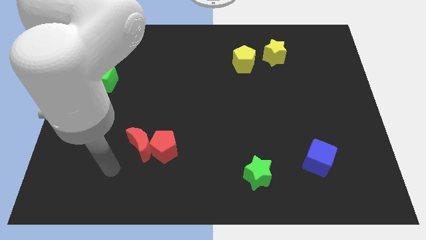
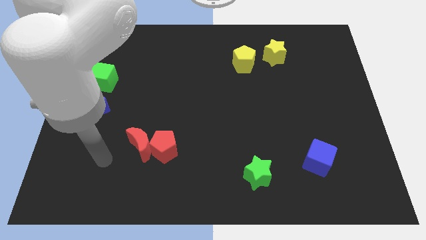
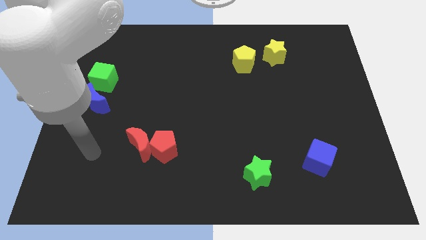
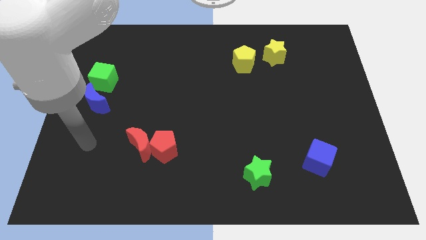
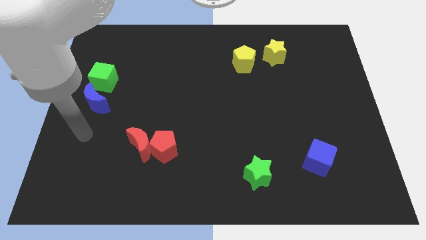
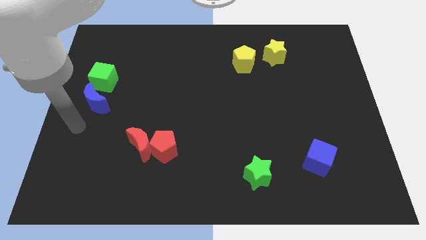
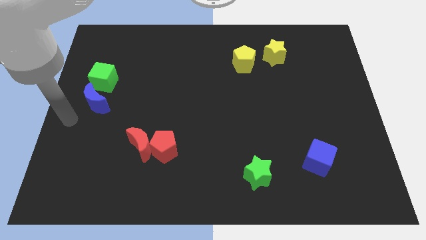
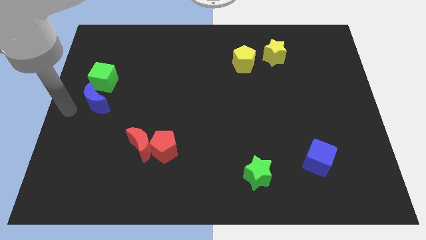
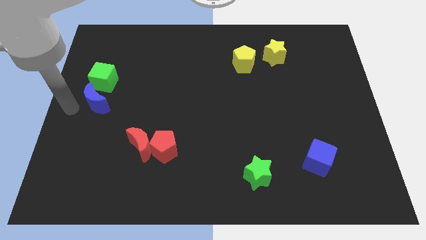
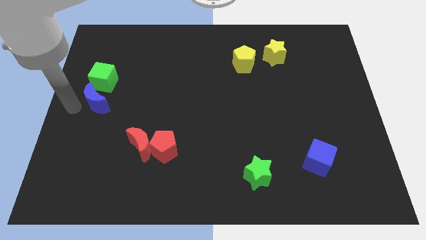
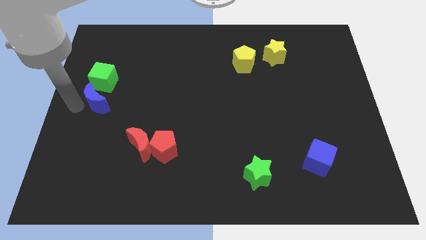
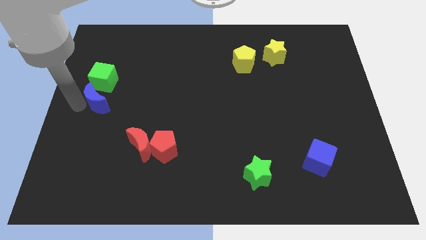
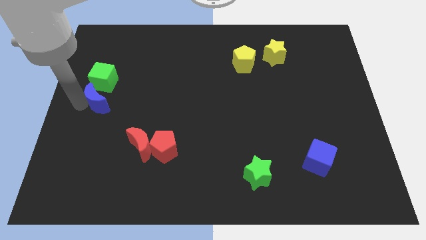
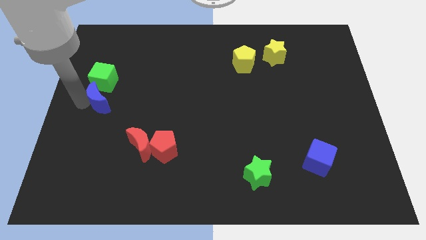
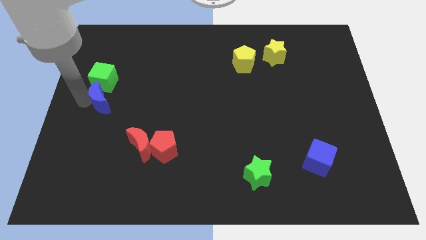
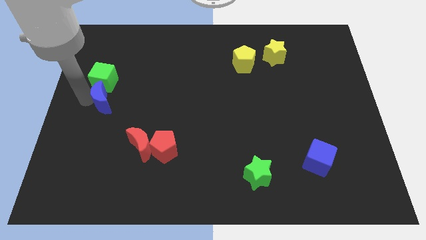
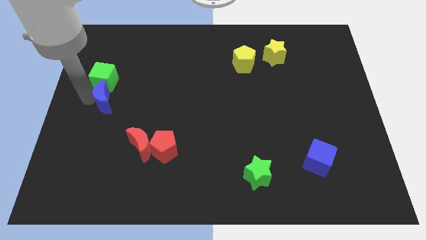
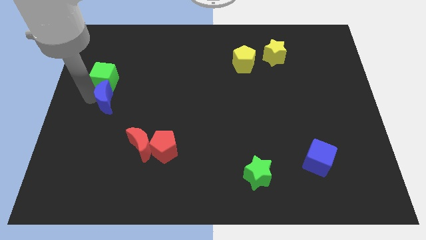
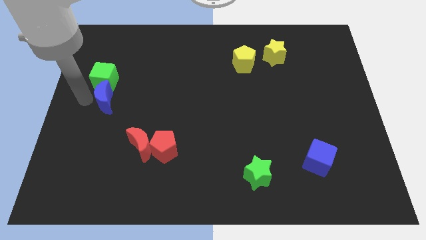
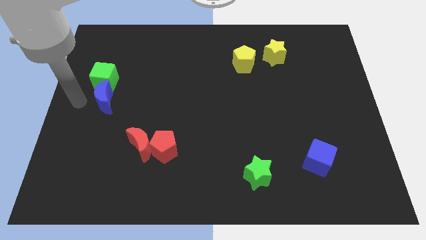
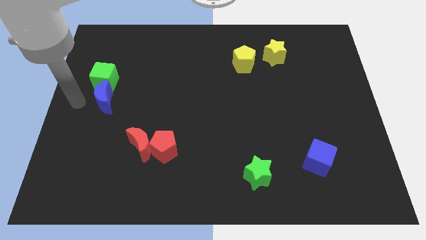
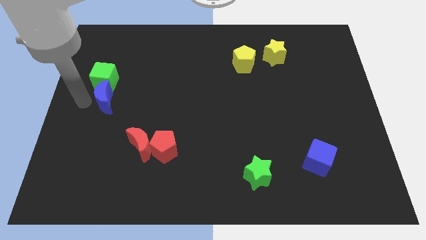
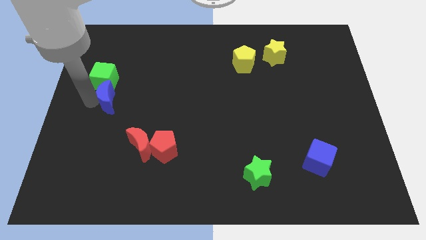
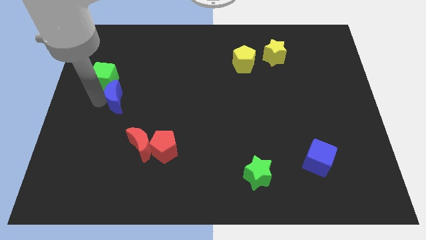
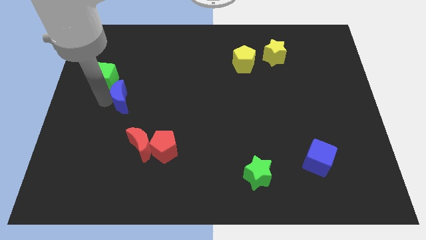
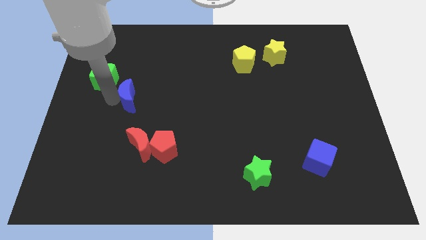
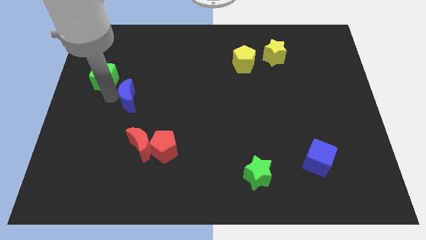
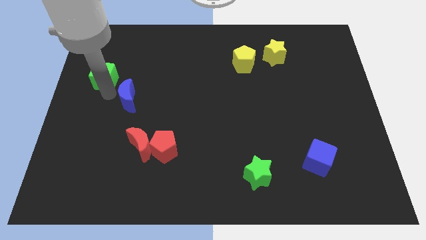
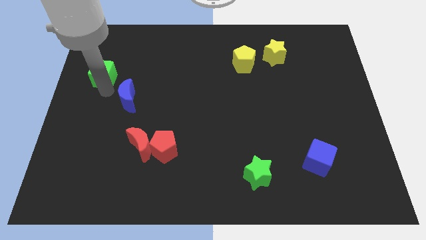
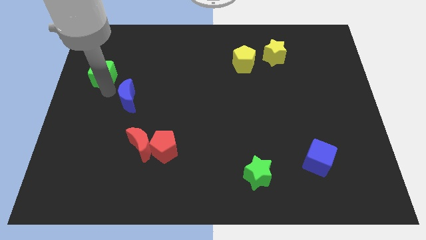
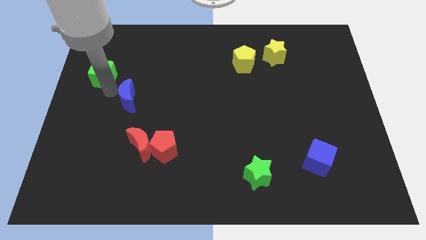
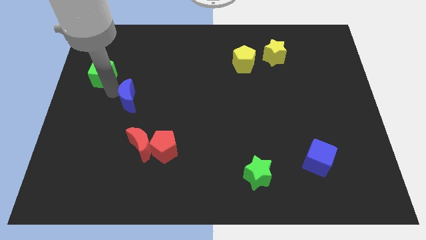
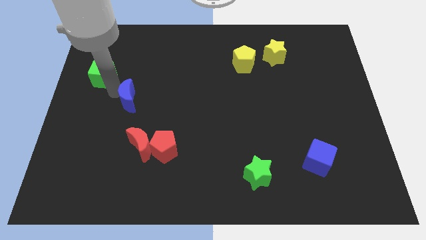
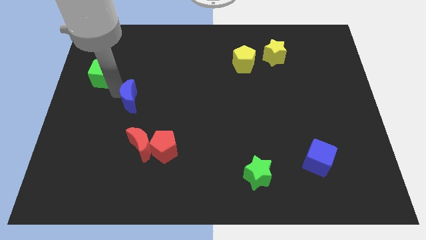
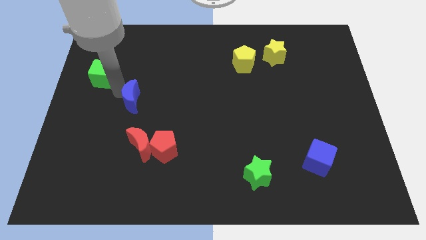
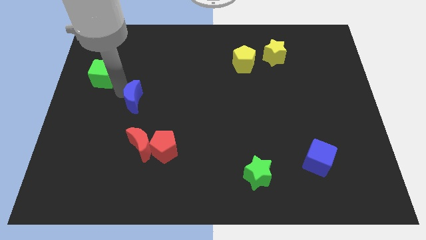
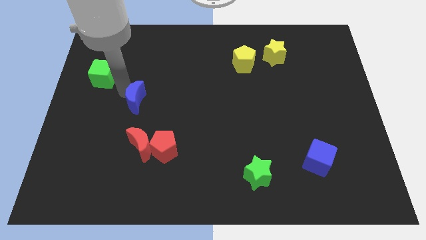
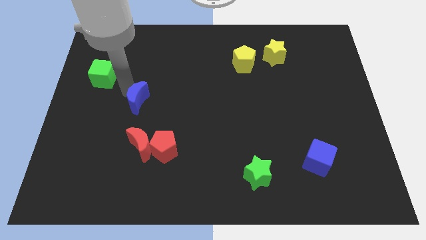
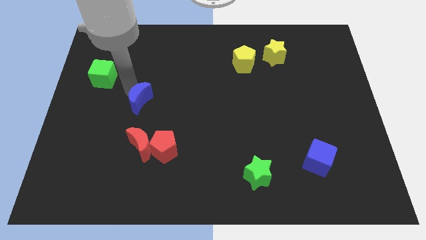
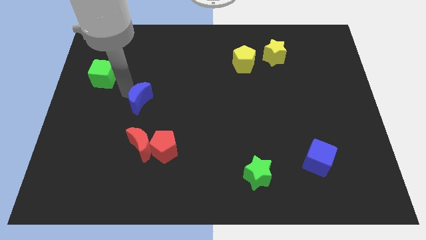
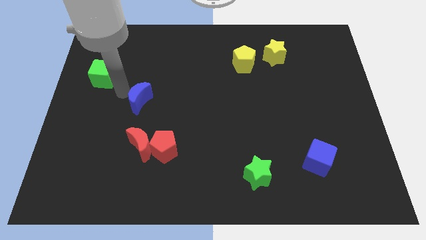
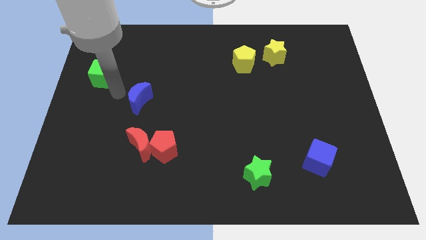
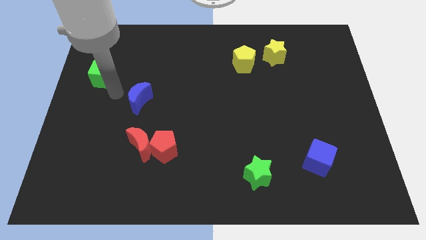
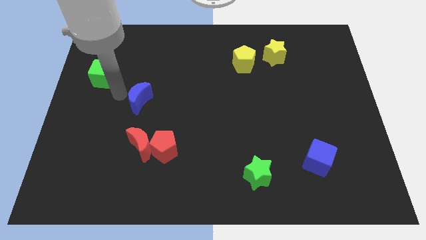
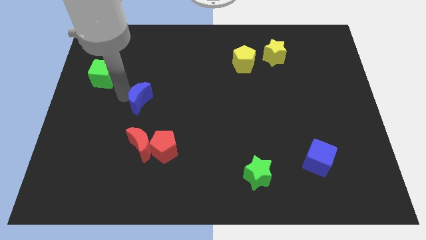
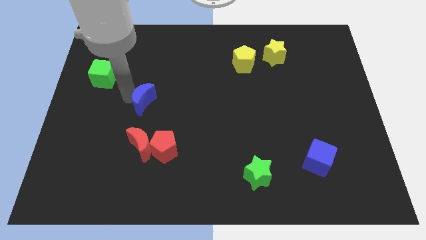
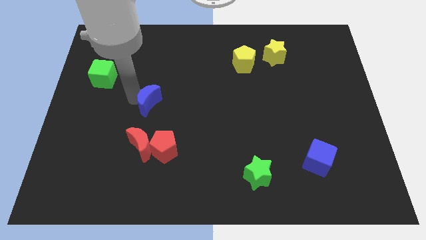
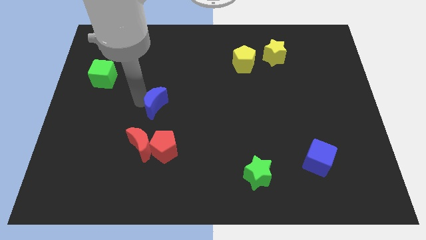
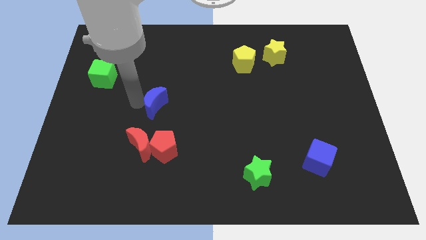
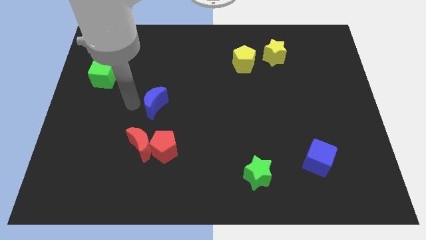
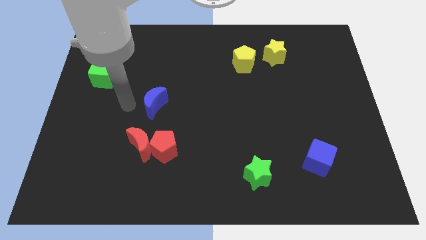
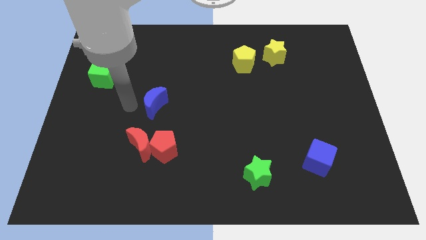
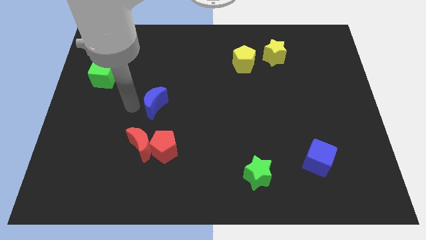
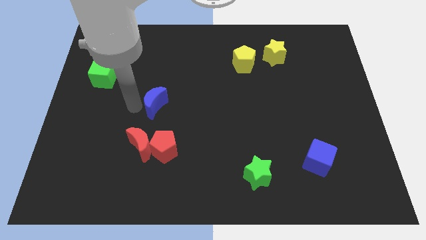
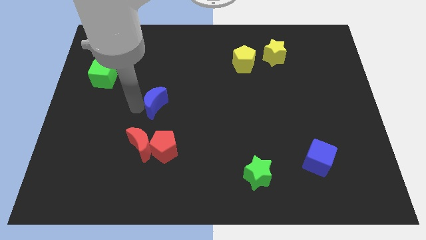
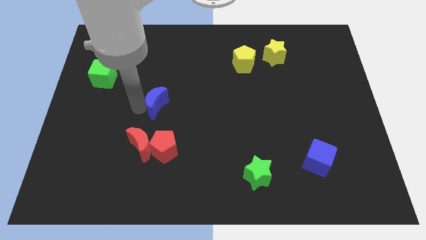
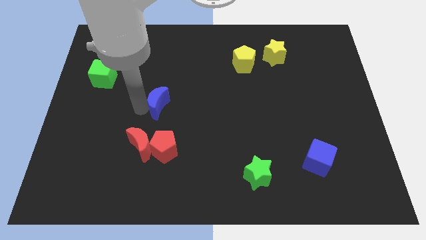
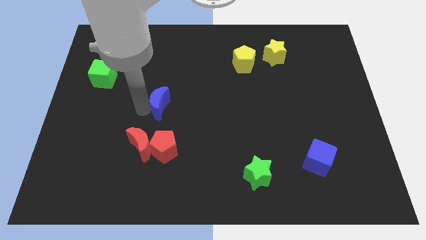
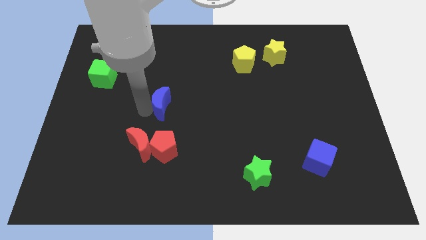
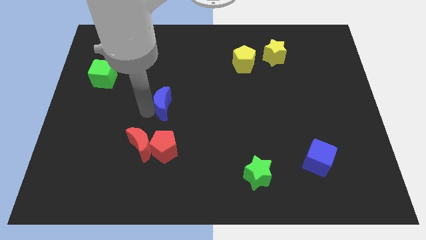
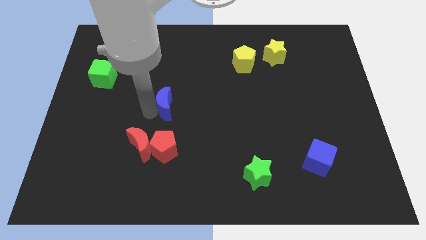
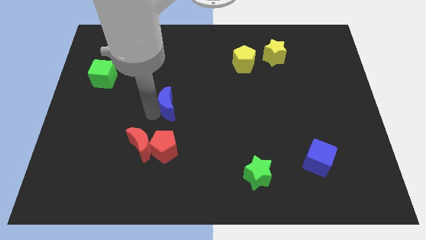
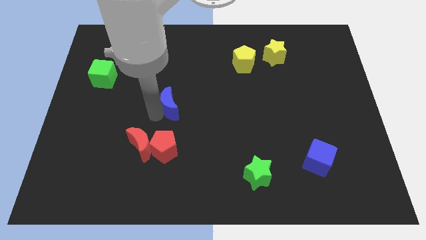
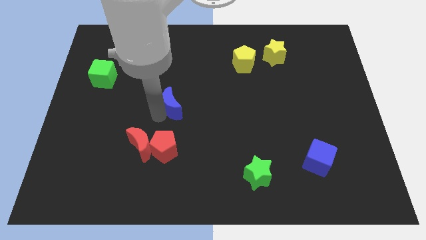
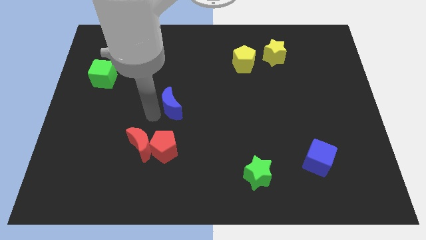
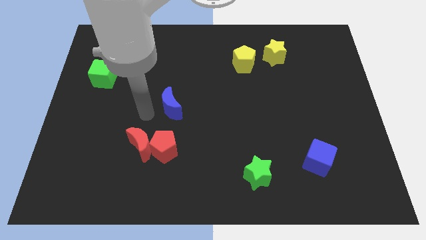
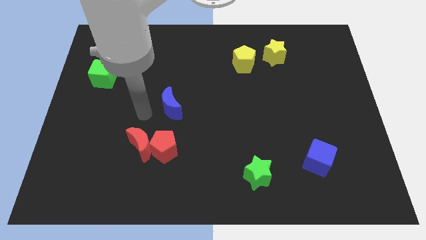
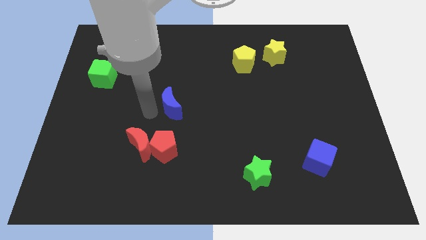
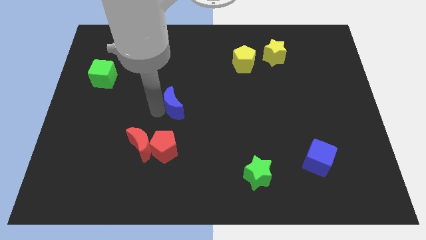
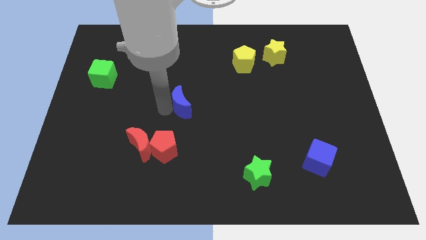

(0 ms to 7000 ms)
move the blue moon to the right

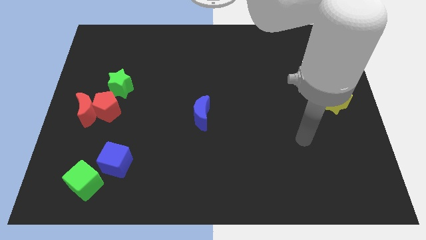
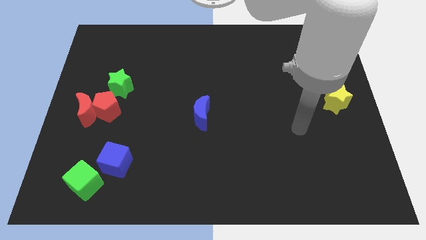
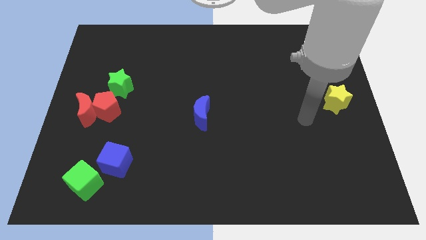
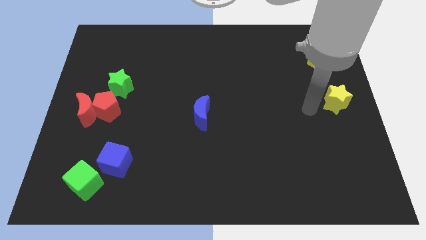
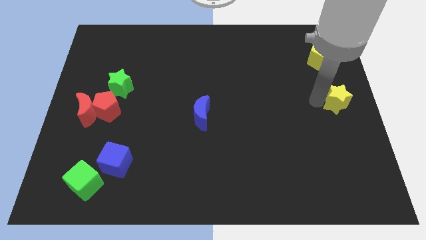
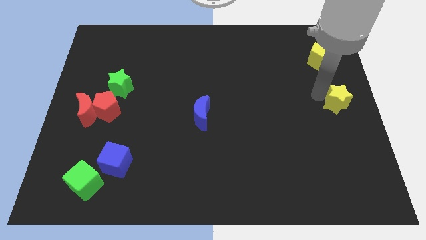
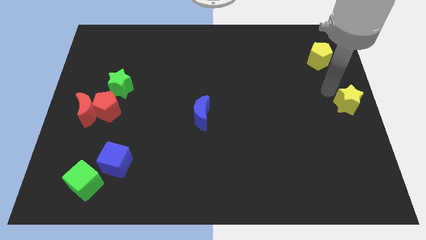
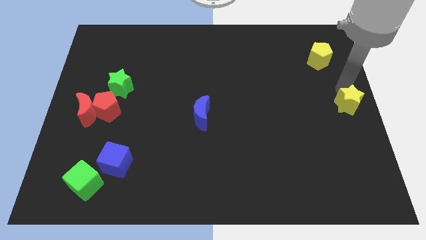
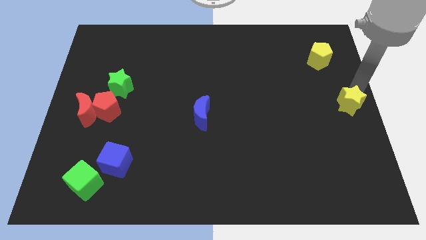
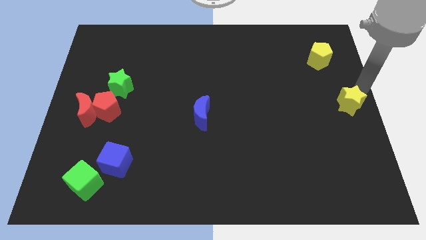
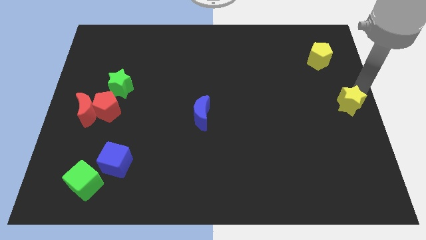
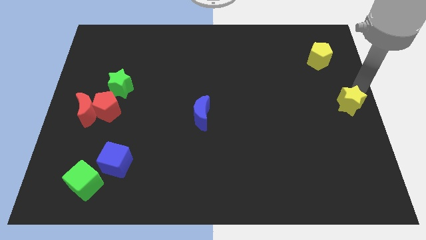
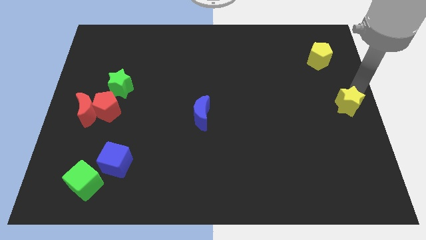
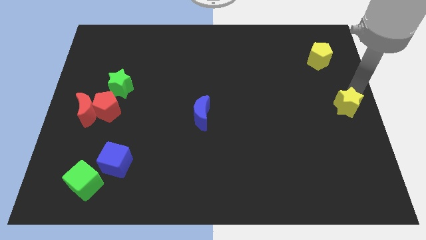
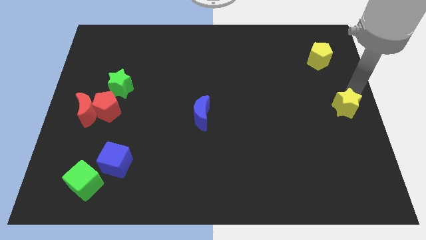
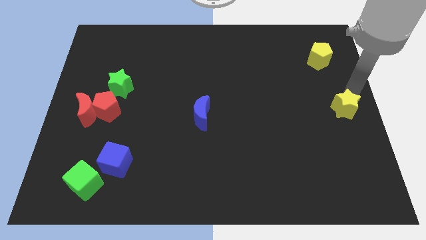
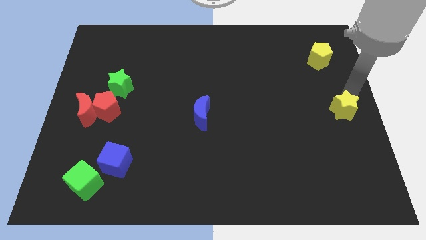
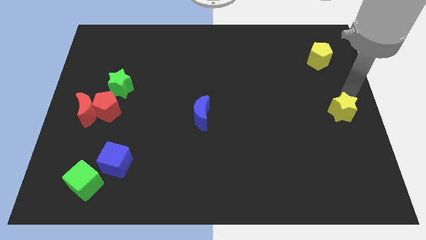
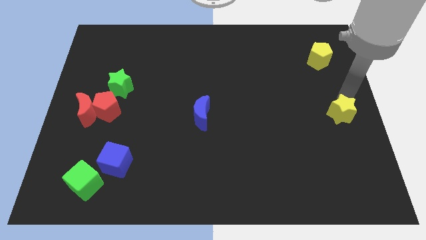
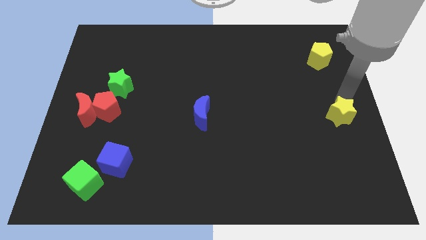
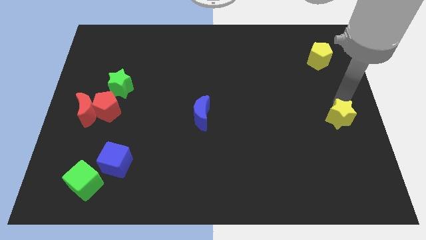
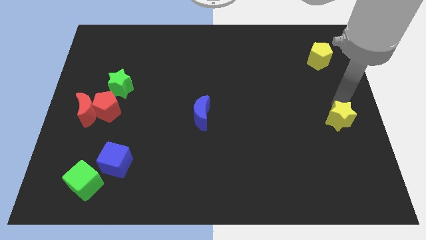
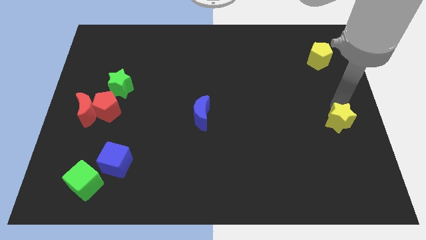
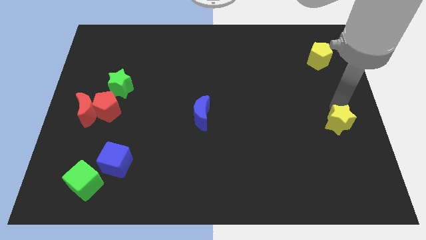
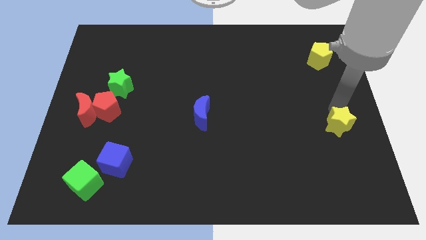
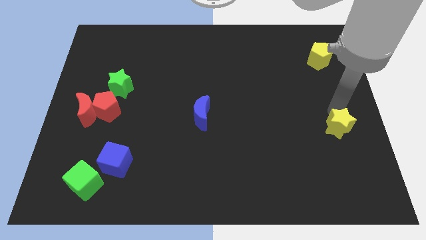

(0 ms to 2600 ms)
slightly move the yellow star downwards
